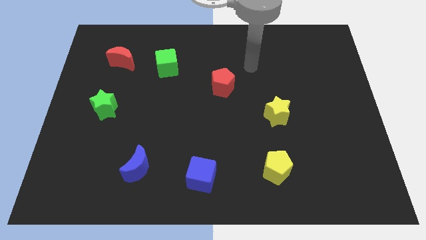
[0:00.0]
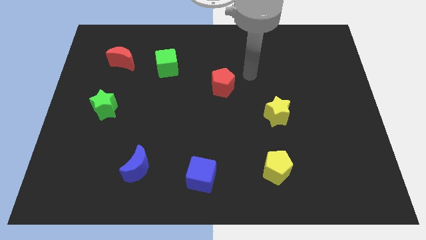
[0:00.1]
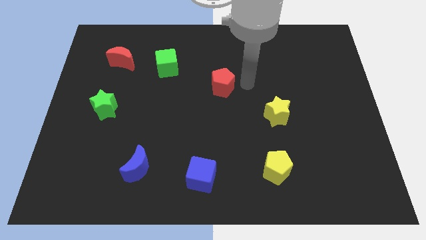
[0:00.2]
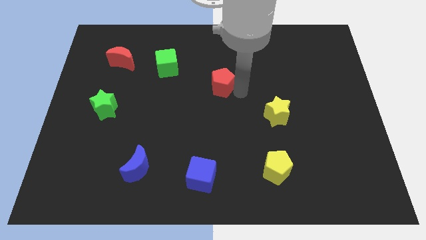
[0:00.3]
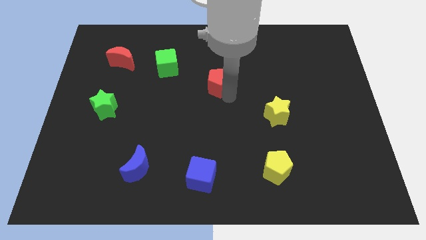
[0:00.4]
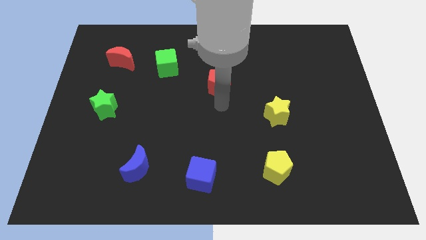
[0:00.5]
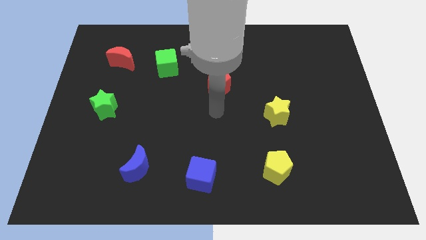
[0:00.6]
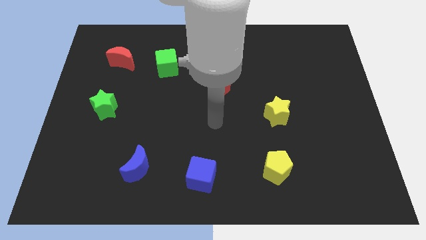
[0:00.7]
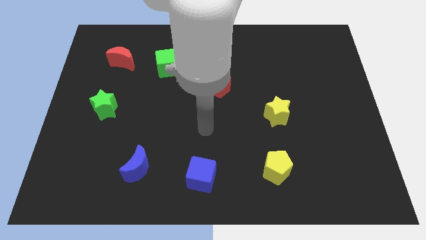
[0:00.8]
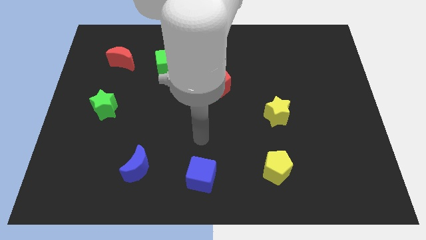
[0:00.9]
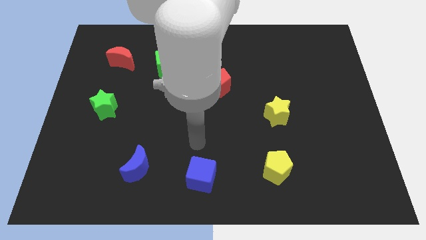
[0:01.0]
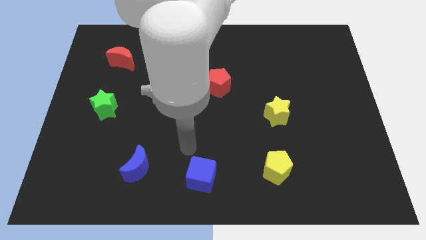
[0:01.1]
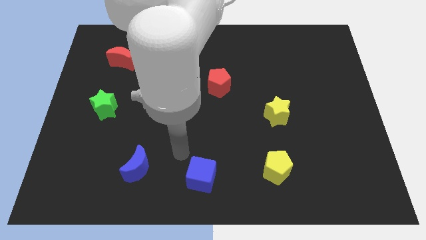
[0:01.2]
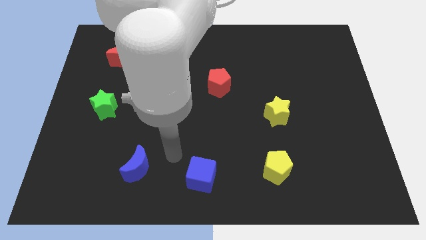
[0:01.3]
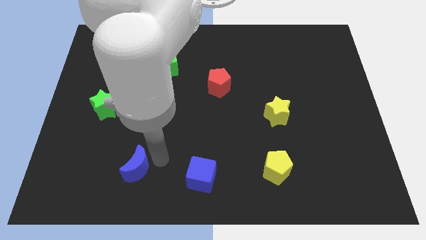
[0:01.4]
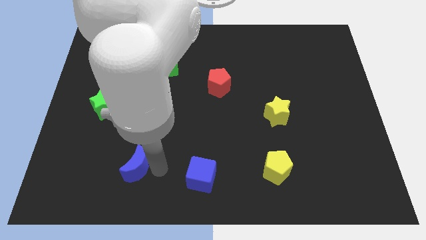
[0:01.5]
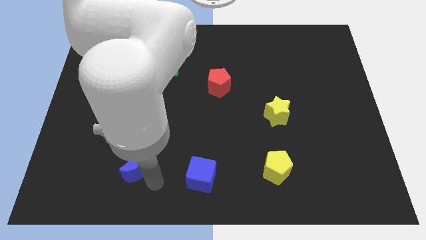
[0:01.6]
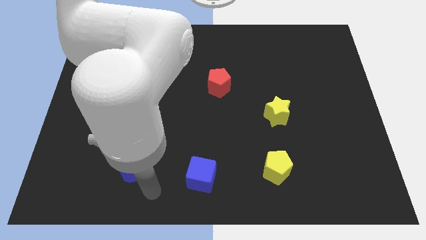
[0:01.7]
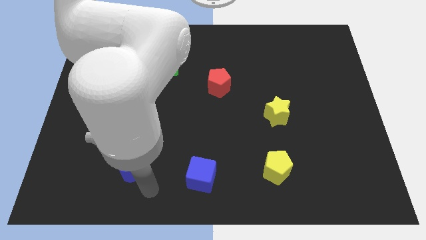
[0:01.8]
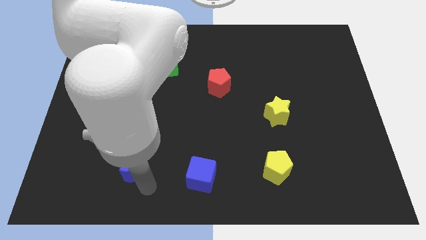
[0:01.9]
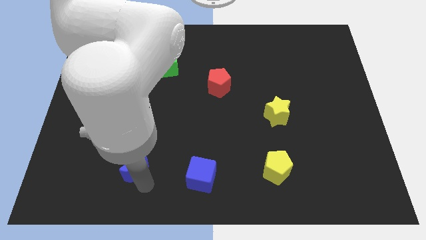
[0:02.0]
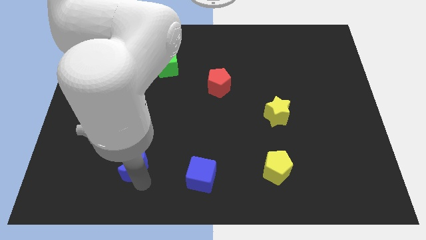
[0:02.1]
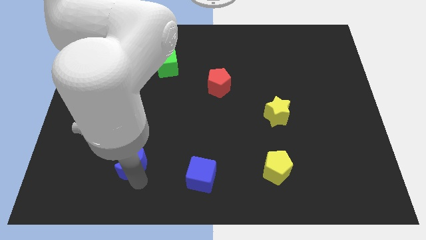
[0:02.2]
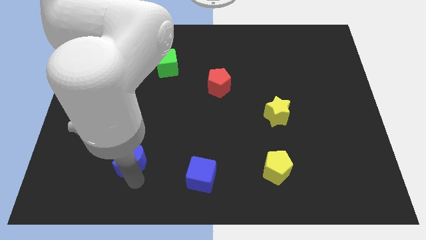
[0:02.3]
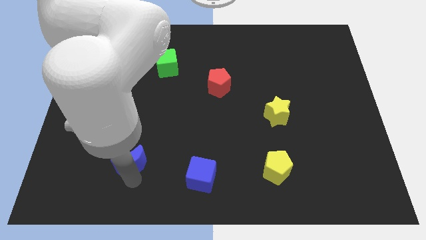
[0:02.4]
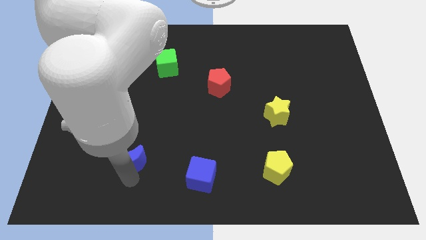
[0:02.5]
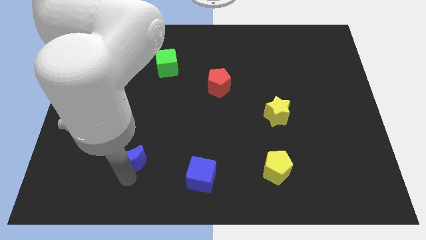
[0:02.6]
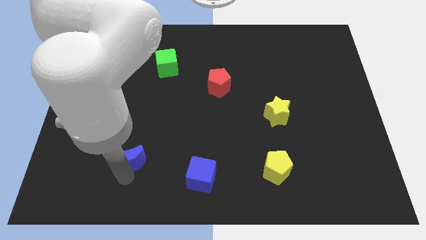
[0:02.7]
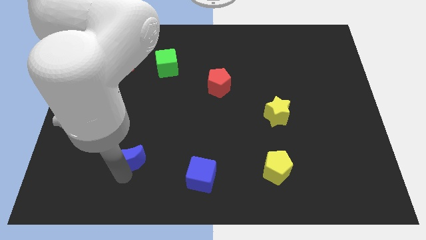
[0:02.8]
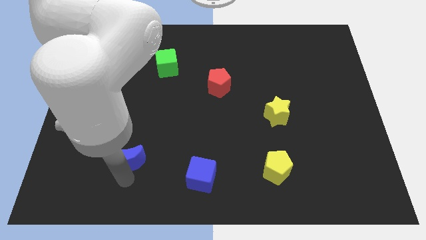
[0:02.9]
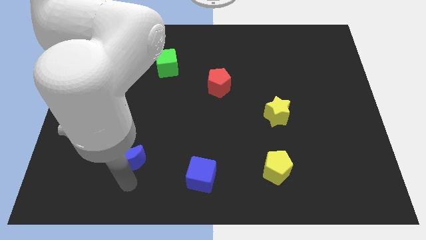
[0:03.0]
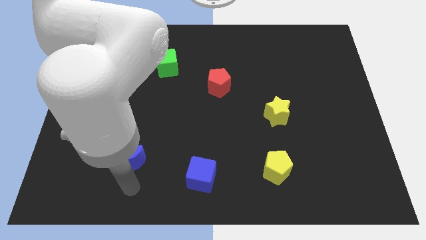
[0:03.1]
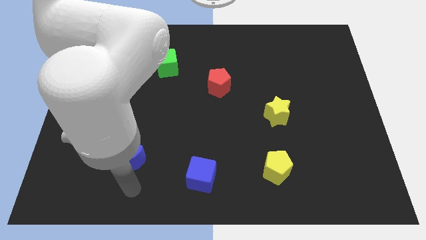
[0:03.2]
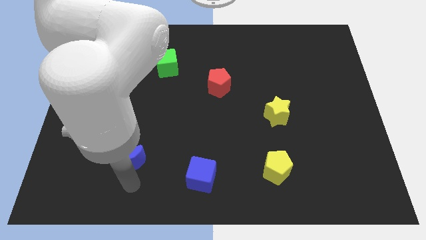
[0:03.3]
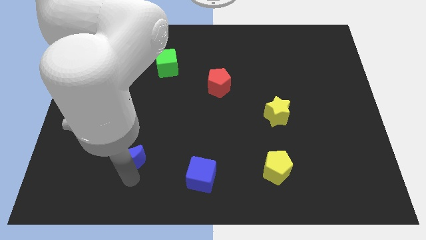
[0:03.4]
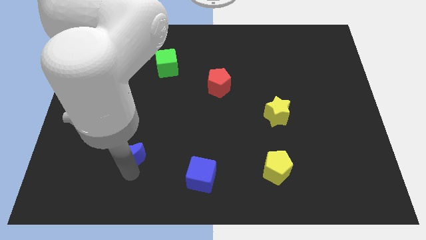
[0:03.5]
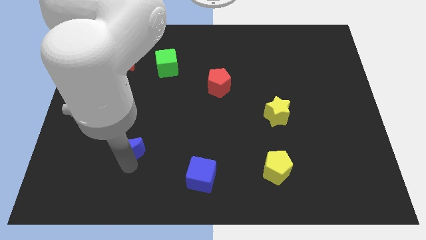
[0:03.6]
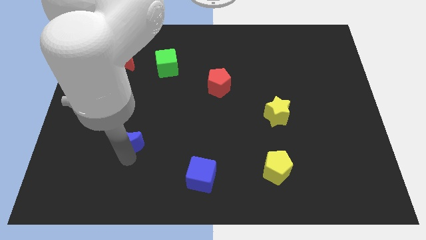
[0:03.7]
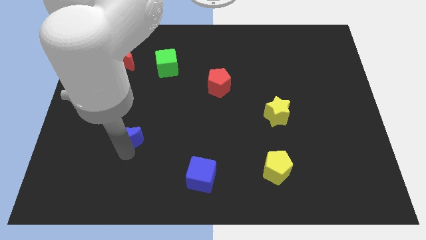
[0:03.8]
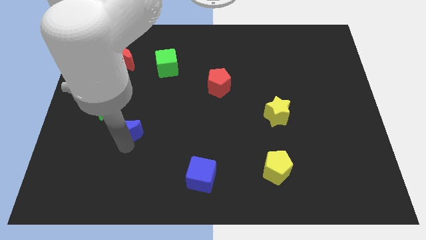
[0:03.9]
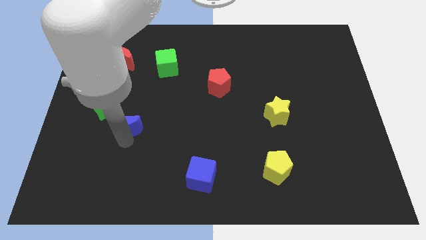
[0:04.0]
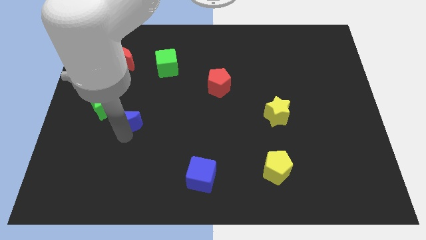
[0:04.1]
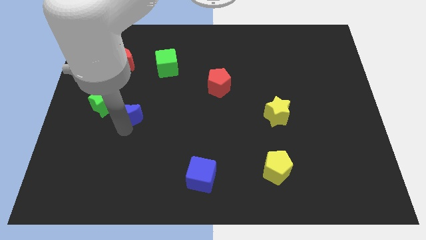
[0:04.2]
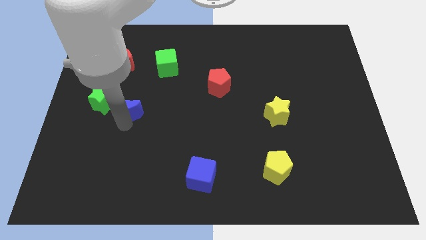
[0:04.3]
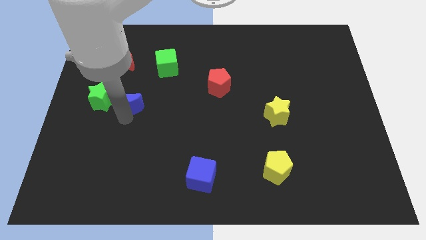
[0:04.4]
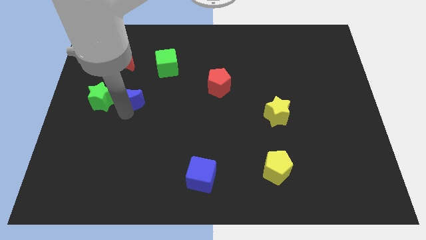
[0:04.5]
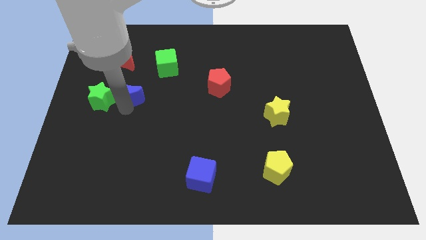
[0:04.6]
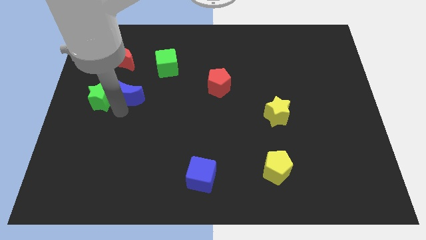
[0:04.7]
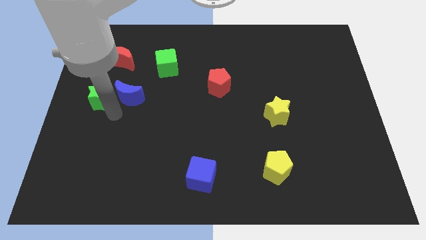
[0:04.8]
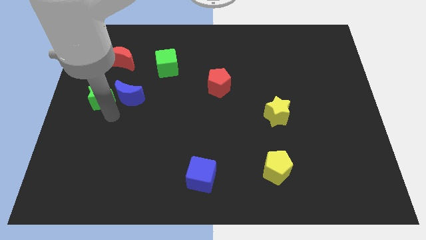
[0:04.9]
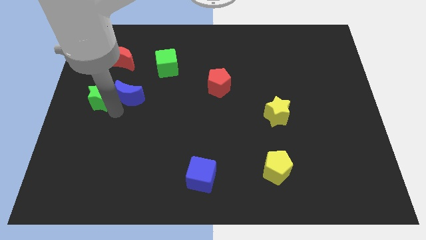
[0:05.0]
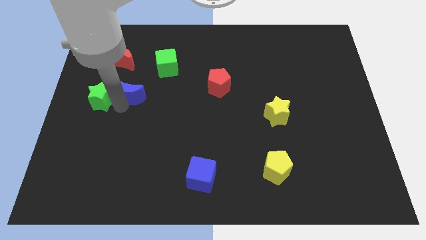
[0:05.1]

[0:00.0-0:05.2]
put the blue moon to the bottom left side of the green cube

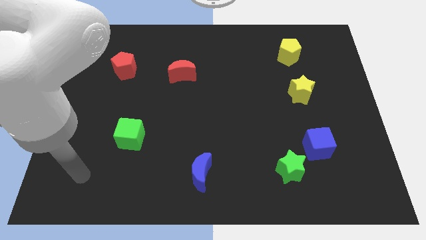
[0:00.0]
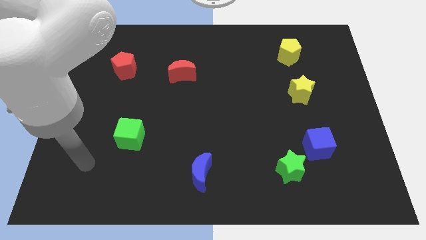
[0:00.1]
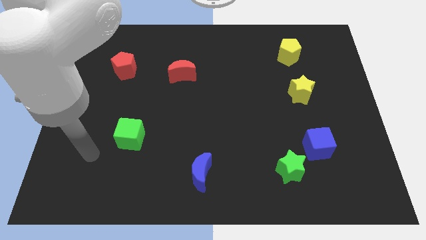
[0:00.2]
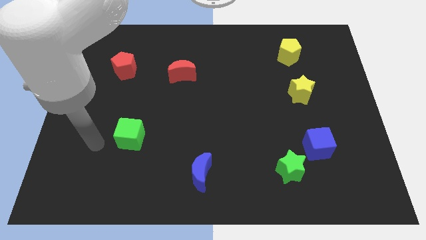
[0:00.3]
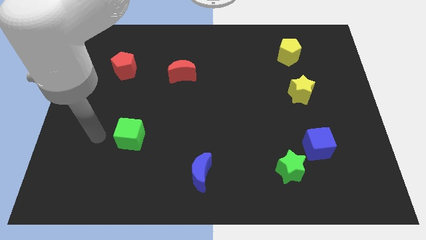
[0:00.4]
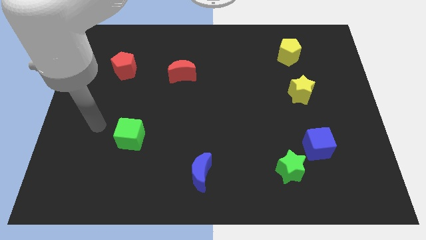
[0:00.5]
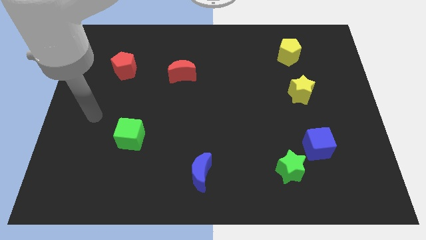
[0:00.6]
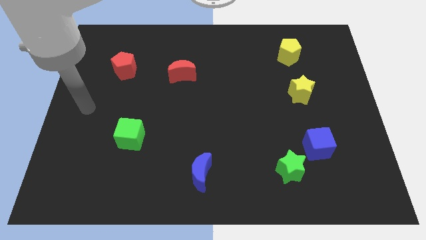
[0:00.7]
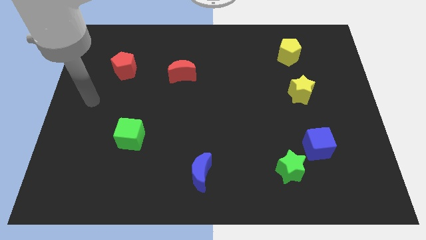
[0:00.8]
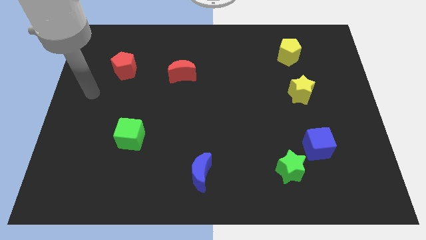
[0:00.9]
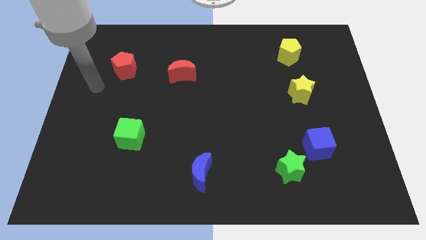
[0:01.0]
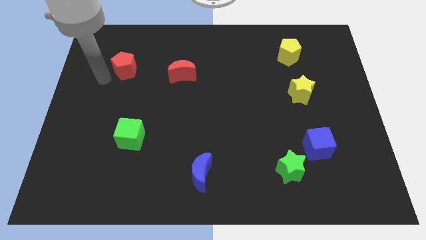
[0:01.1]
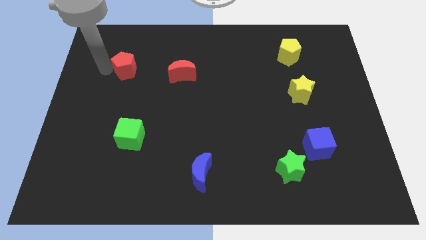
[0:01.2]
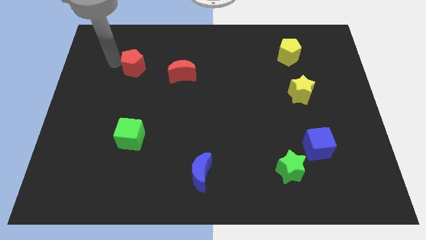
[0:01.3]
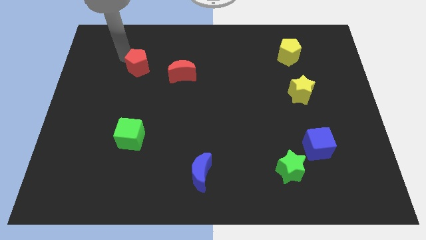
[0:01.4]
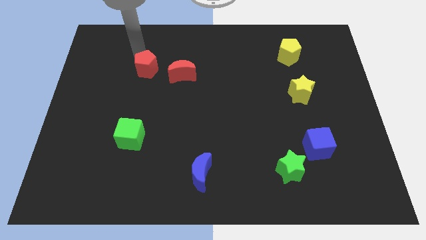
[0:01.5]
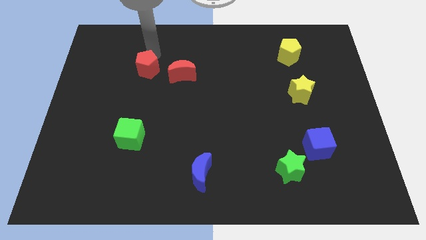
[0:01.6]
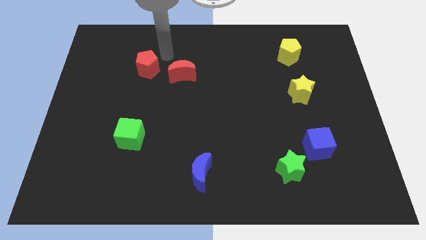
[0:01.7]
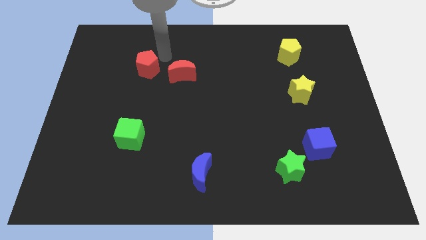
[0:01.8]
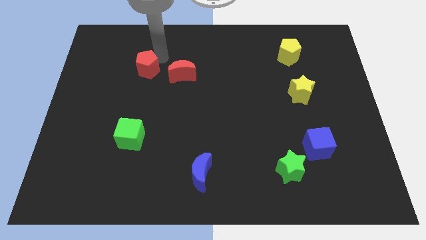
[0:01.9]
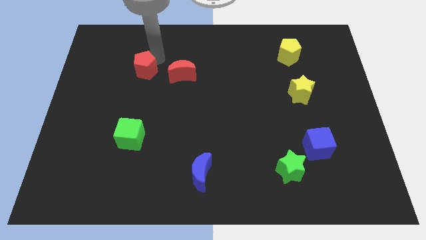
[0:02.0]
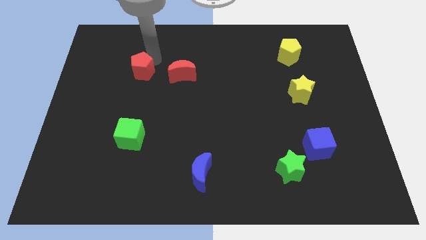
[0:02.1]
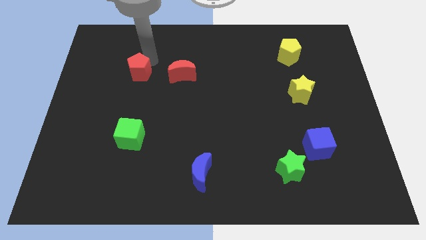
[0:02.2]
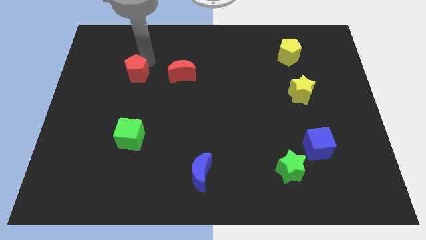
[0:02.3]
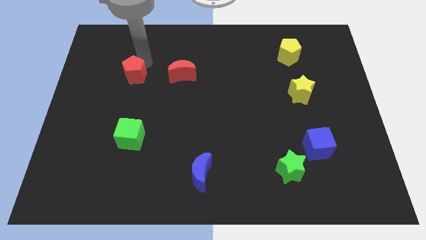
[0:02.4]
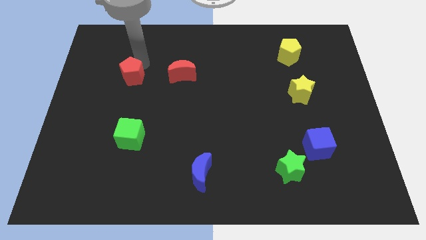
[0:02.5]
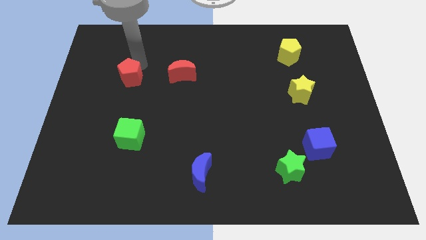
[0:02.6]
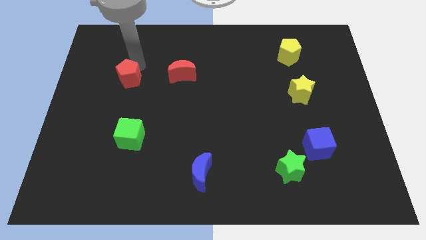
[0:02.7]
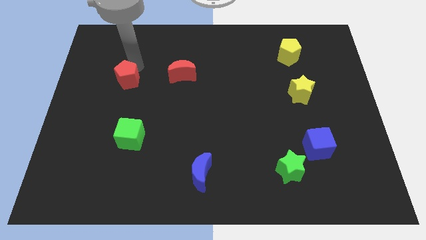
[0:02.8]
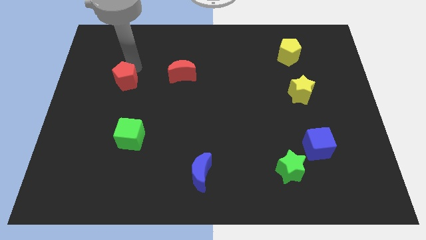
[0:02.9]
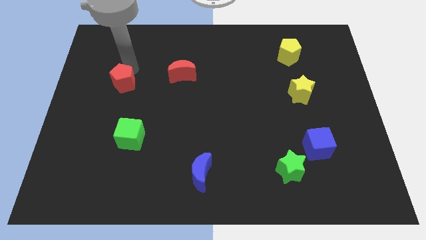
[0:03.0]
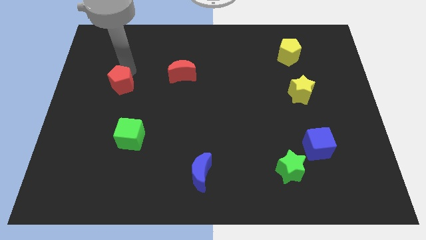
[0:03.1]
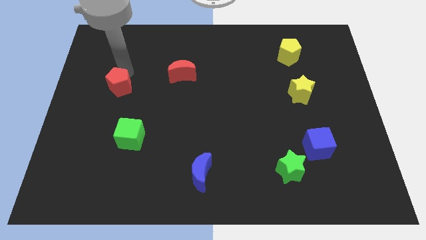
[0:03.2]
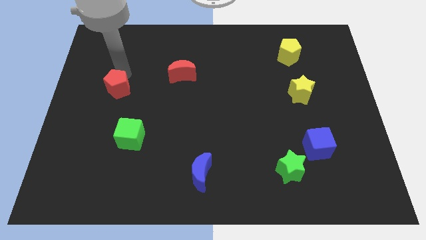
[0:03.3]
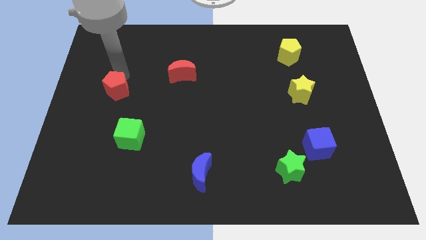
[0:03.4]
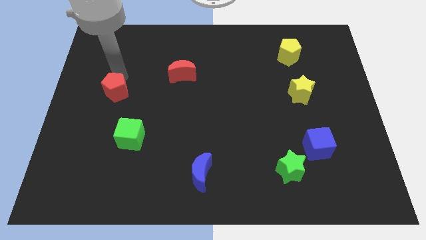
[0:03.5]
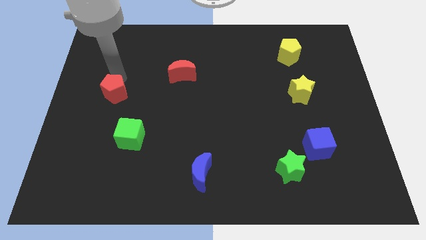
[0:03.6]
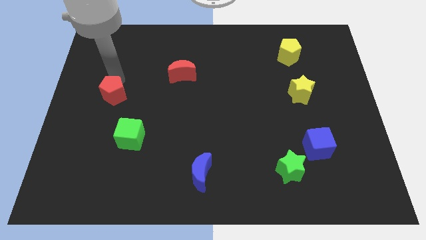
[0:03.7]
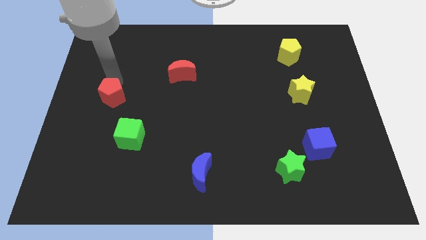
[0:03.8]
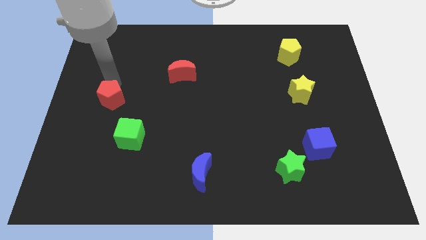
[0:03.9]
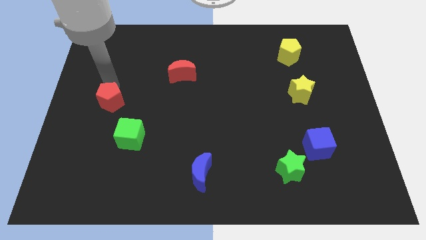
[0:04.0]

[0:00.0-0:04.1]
move the red pentagon to the top left of the green cube
